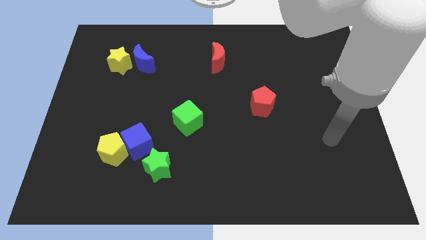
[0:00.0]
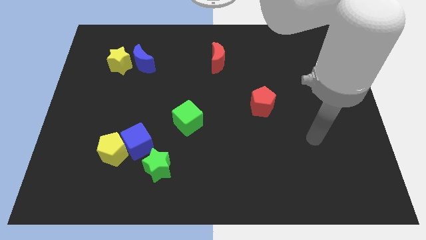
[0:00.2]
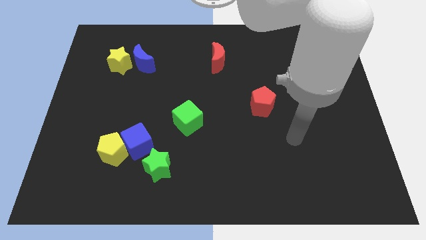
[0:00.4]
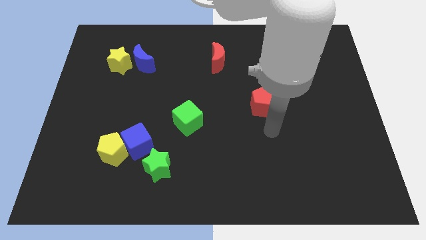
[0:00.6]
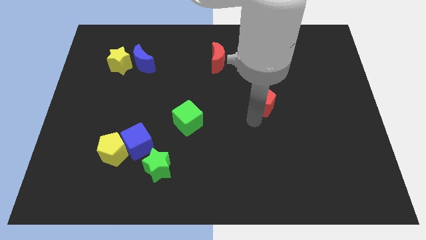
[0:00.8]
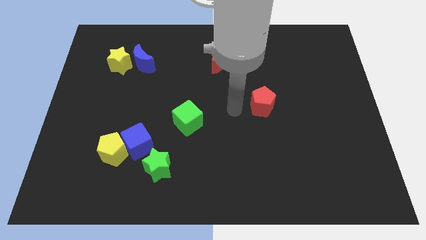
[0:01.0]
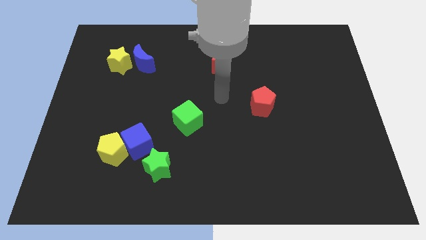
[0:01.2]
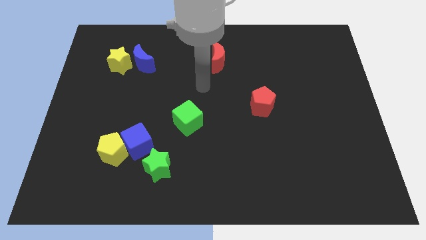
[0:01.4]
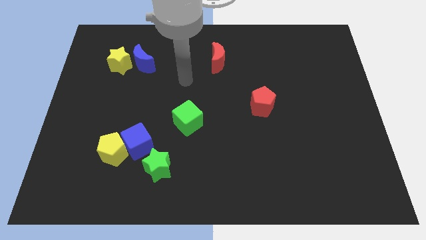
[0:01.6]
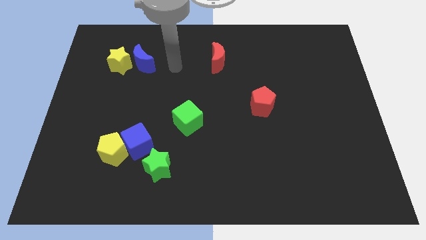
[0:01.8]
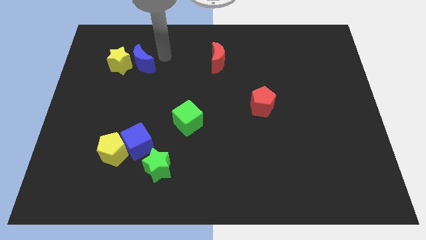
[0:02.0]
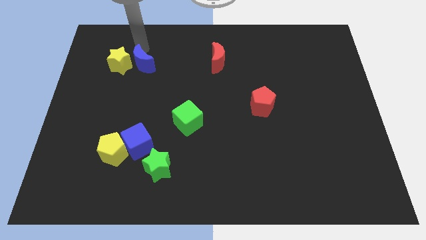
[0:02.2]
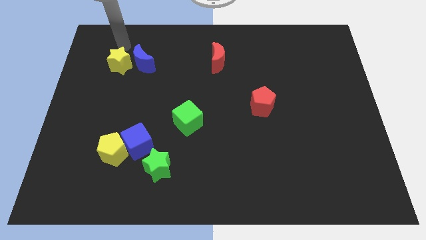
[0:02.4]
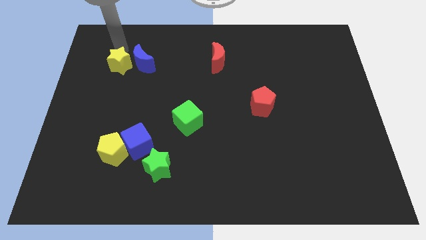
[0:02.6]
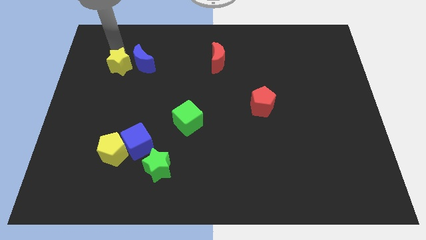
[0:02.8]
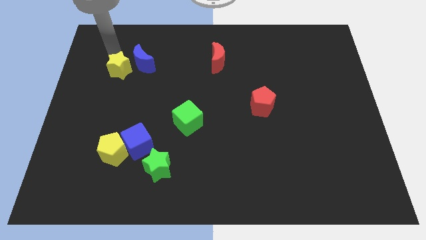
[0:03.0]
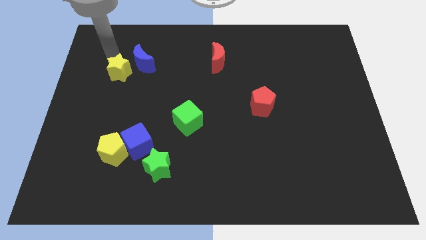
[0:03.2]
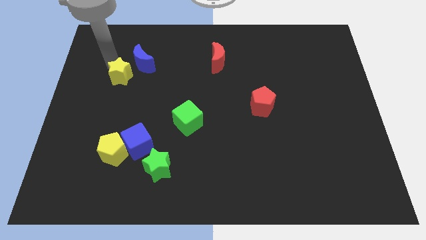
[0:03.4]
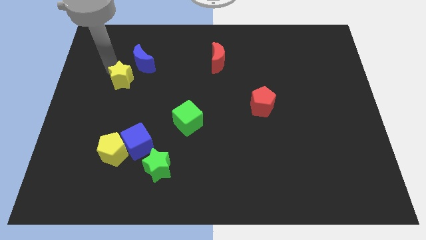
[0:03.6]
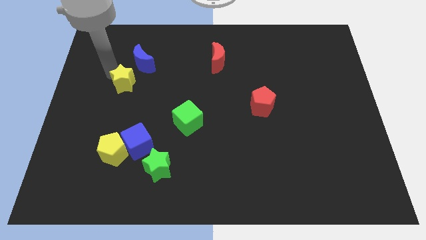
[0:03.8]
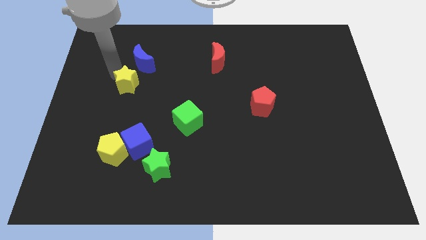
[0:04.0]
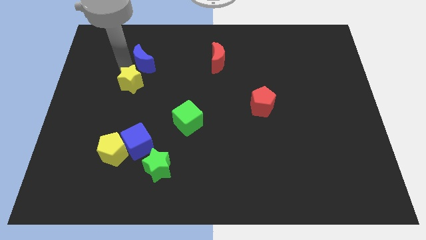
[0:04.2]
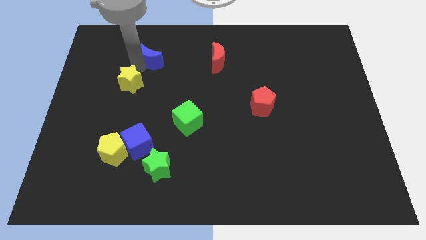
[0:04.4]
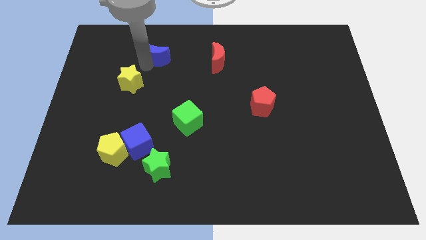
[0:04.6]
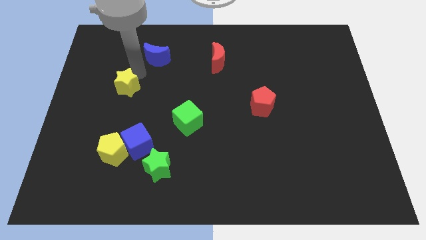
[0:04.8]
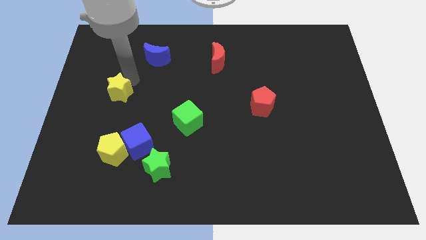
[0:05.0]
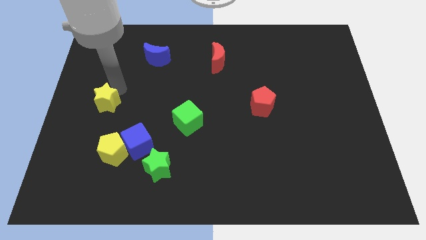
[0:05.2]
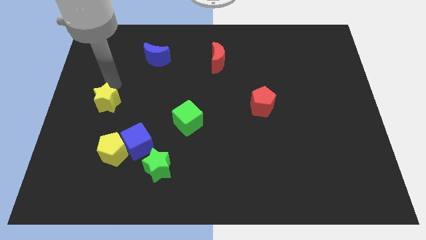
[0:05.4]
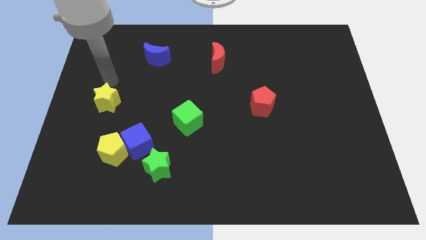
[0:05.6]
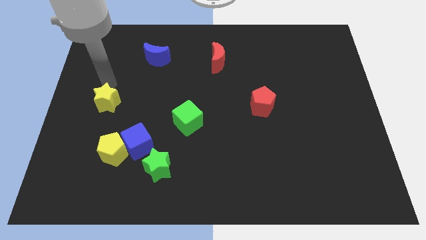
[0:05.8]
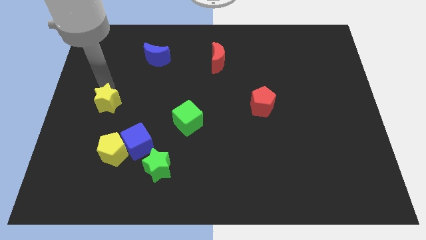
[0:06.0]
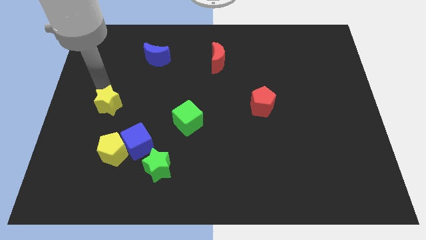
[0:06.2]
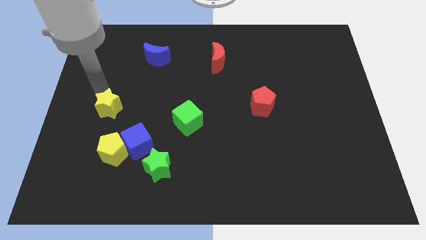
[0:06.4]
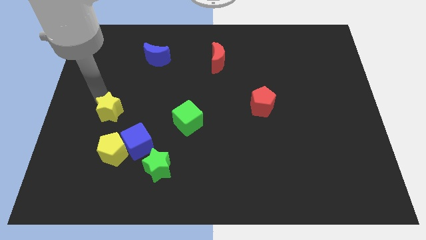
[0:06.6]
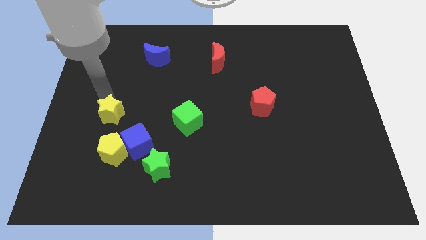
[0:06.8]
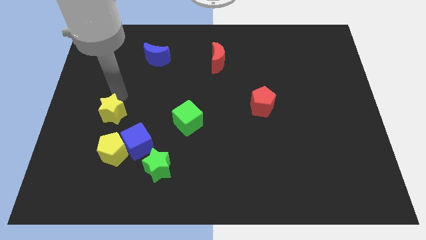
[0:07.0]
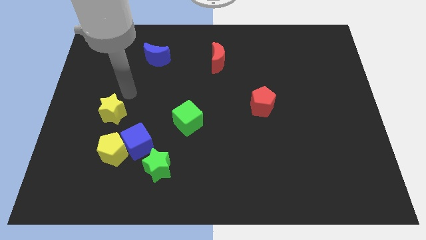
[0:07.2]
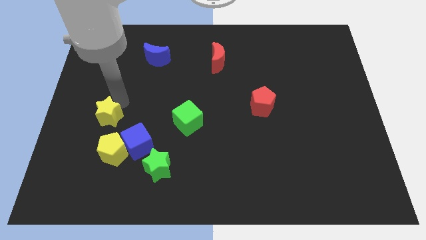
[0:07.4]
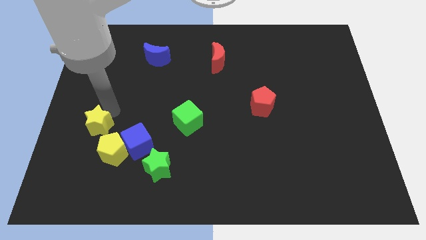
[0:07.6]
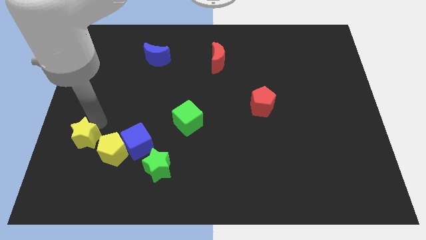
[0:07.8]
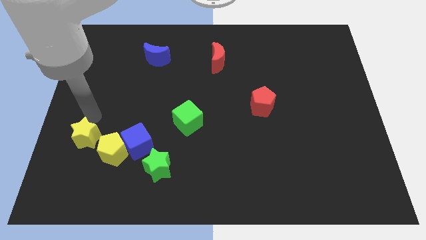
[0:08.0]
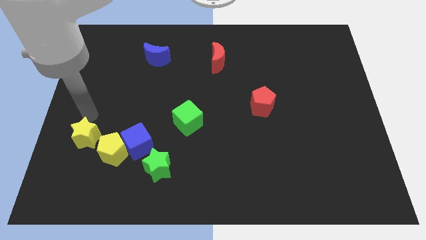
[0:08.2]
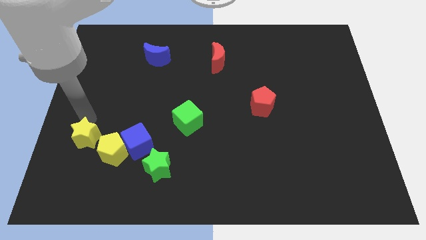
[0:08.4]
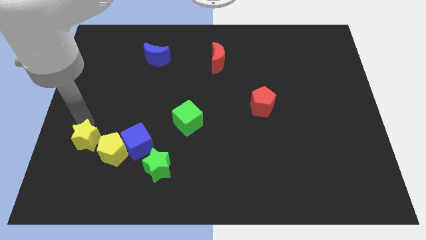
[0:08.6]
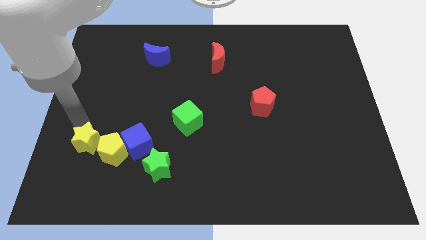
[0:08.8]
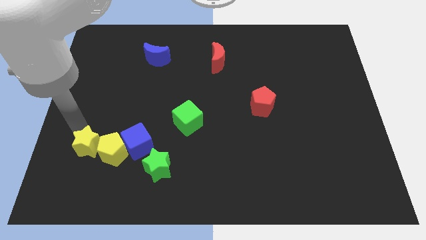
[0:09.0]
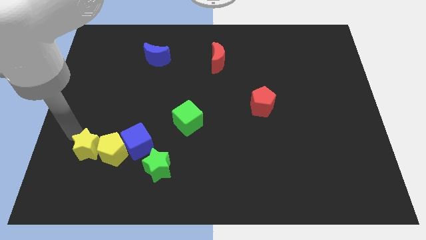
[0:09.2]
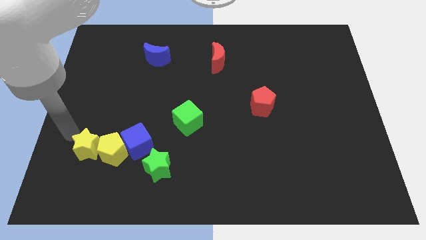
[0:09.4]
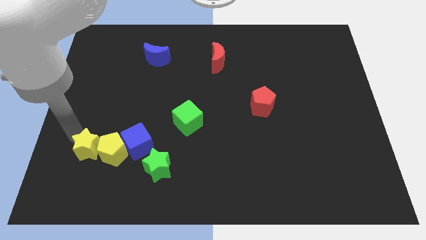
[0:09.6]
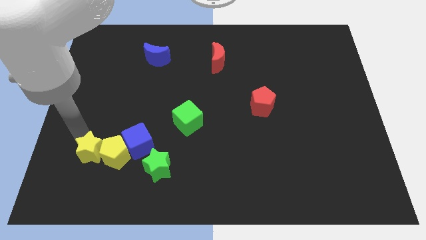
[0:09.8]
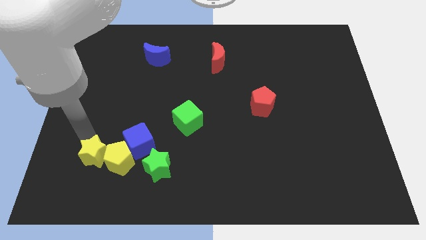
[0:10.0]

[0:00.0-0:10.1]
push the yellow star diagonally down and to the left of the blue cube

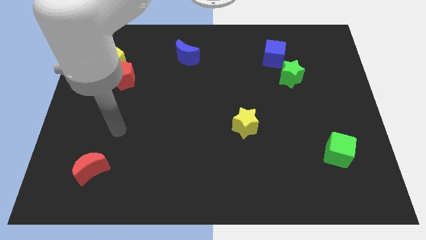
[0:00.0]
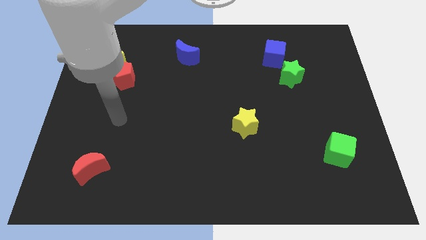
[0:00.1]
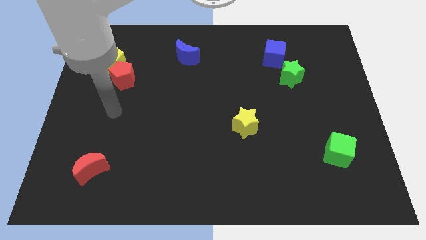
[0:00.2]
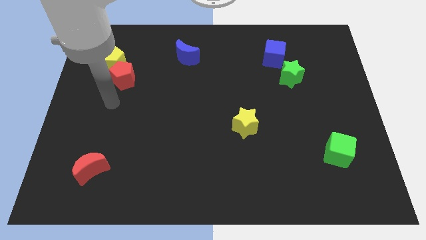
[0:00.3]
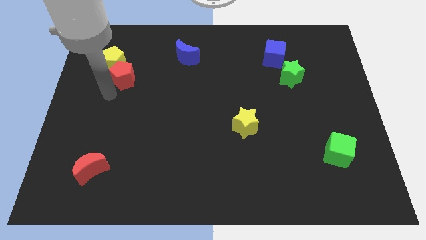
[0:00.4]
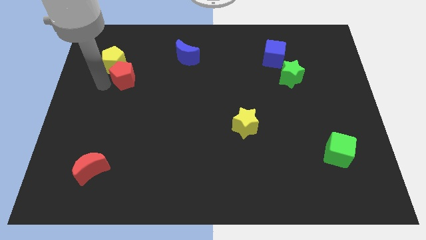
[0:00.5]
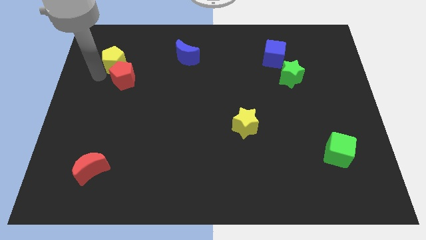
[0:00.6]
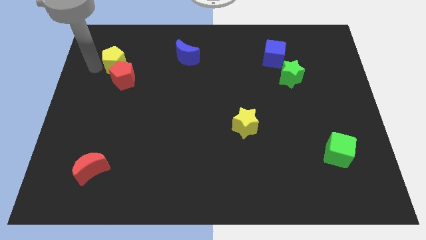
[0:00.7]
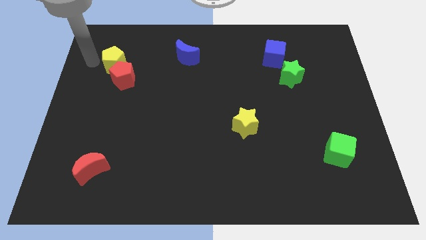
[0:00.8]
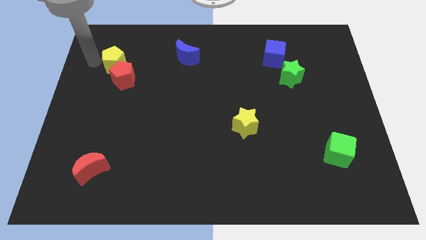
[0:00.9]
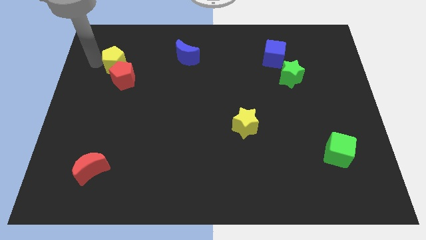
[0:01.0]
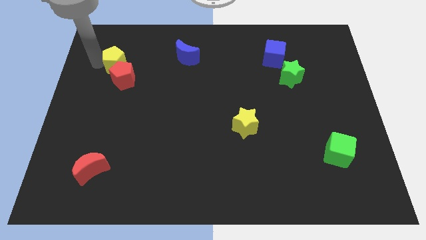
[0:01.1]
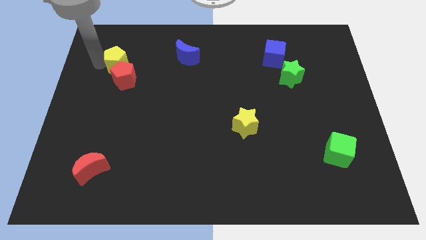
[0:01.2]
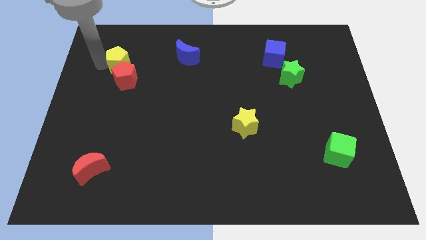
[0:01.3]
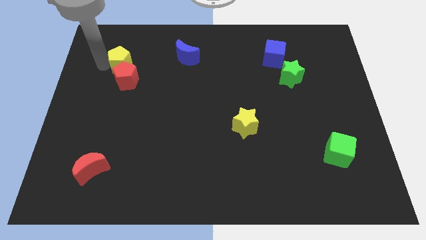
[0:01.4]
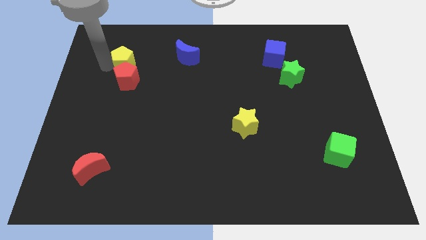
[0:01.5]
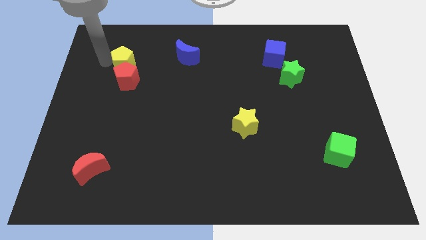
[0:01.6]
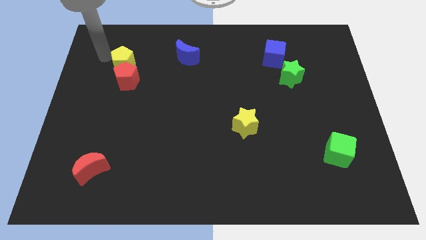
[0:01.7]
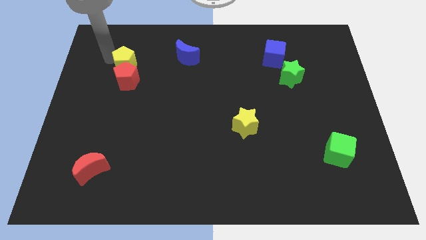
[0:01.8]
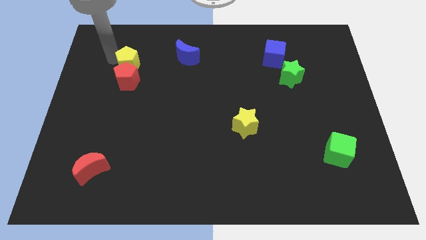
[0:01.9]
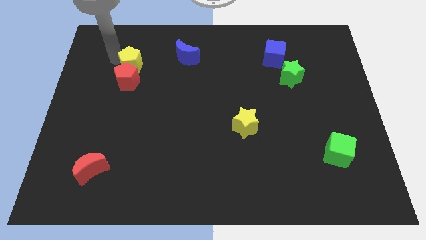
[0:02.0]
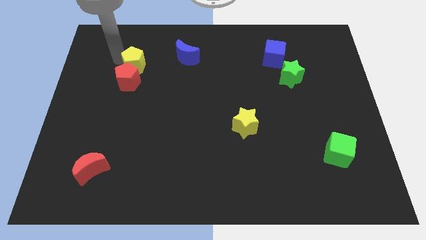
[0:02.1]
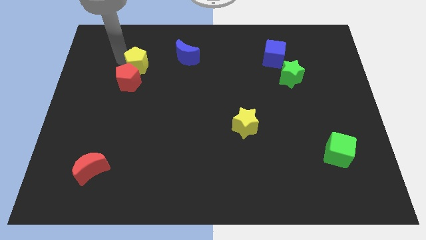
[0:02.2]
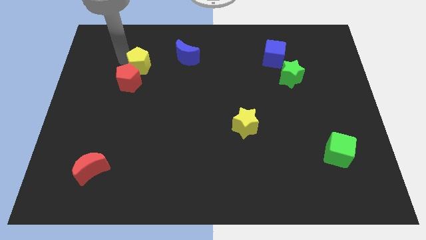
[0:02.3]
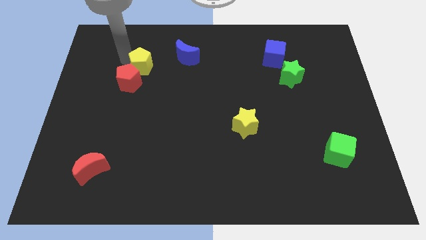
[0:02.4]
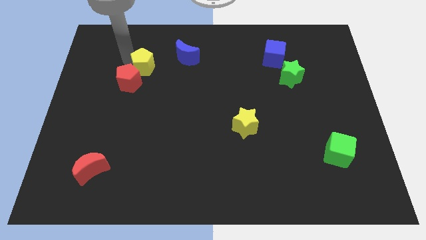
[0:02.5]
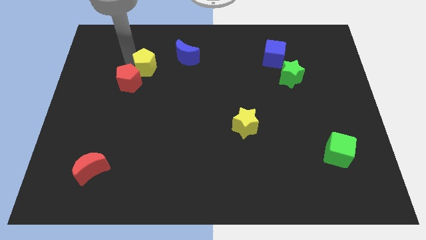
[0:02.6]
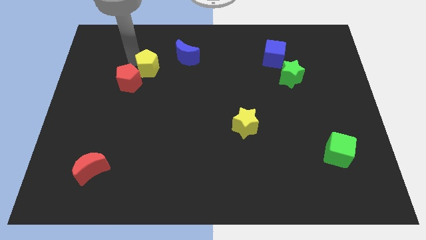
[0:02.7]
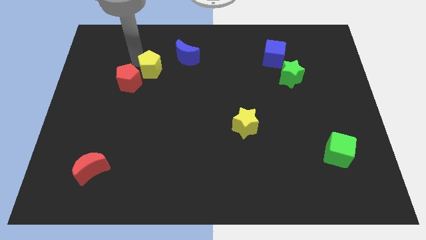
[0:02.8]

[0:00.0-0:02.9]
push the yellow pentagon to the right side of the red pentagon
